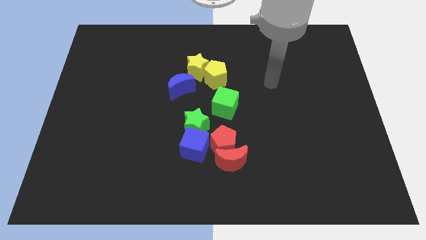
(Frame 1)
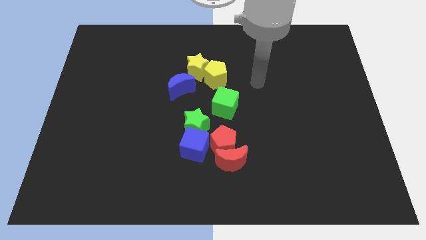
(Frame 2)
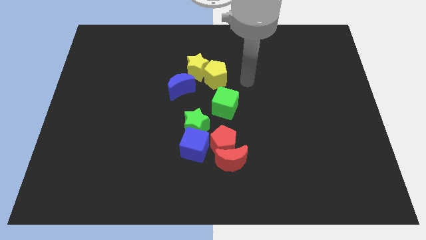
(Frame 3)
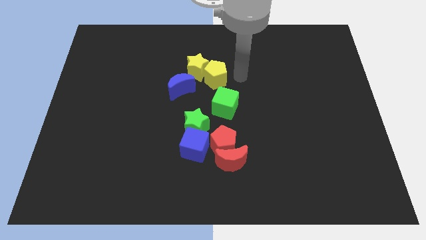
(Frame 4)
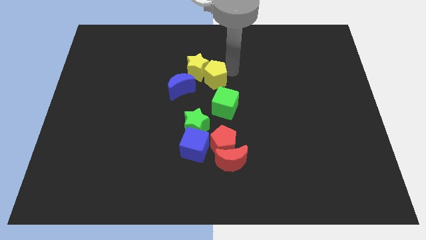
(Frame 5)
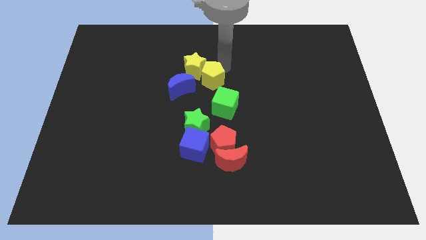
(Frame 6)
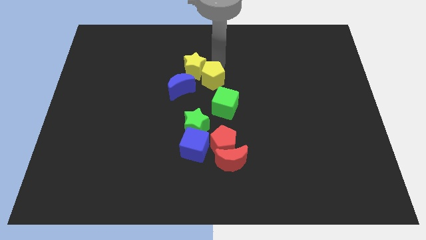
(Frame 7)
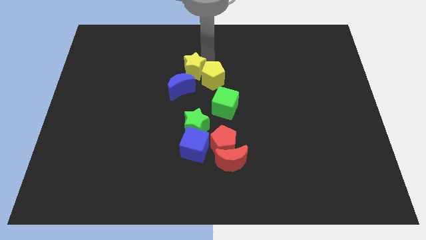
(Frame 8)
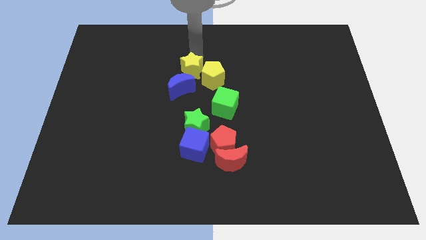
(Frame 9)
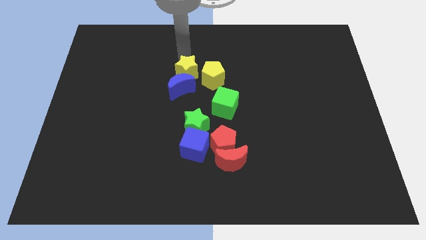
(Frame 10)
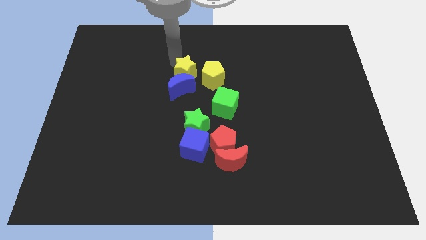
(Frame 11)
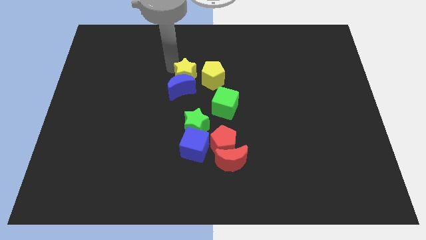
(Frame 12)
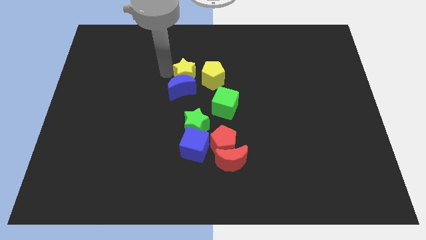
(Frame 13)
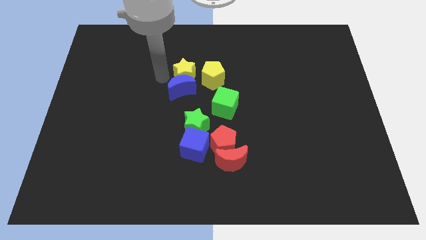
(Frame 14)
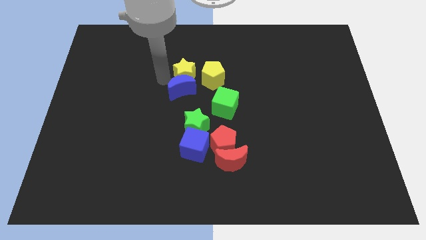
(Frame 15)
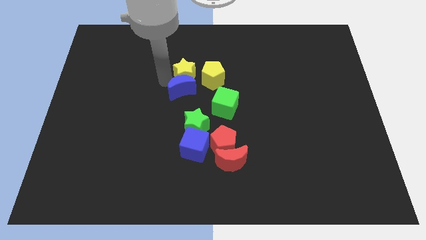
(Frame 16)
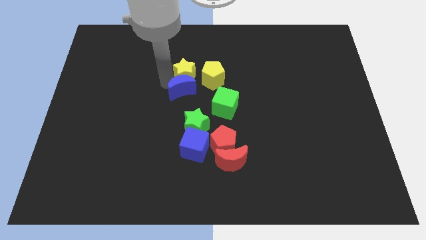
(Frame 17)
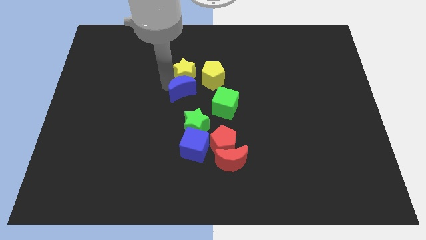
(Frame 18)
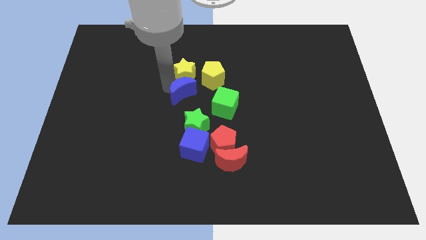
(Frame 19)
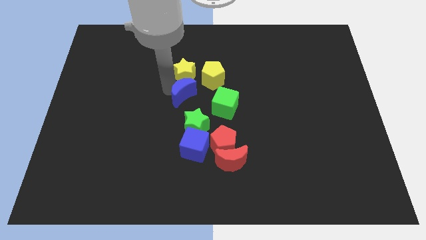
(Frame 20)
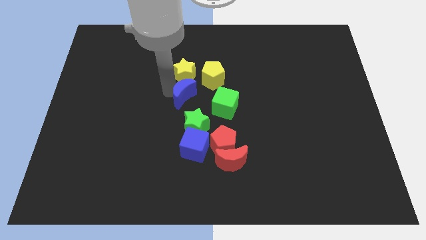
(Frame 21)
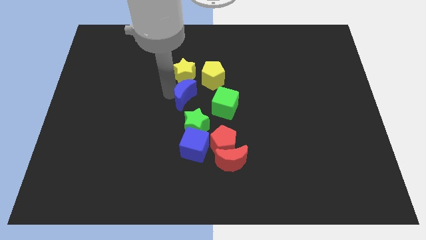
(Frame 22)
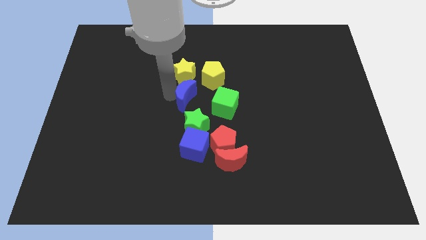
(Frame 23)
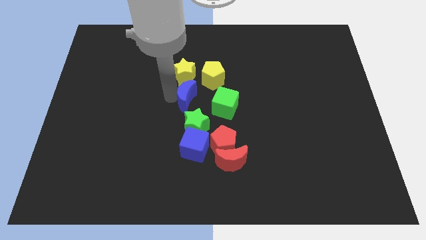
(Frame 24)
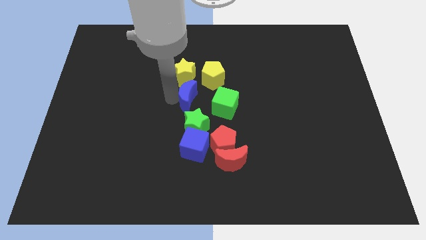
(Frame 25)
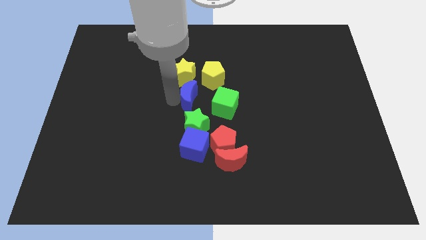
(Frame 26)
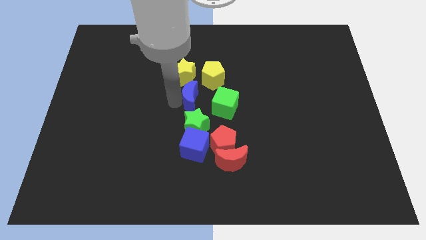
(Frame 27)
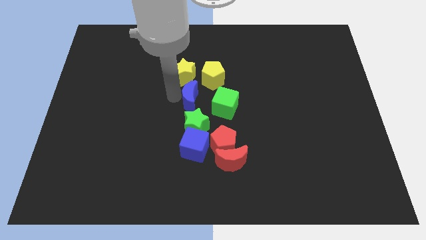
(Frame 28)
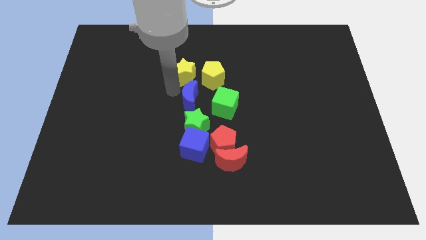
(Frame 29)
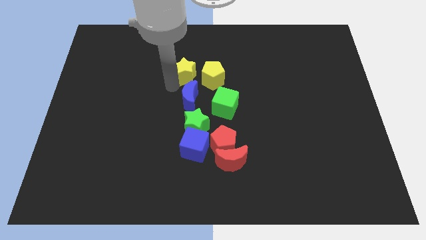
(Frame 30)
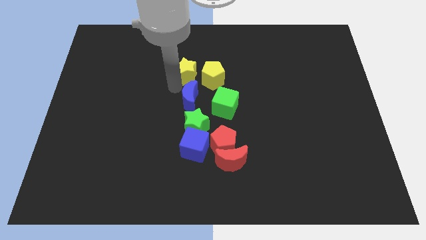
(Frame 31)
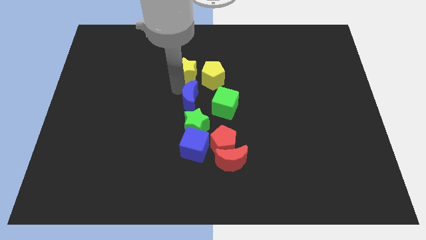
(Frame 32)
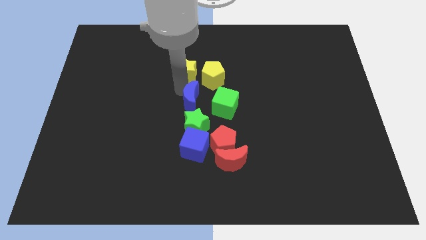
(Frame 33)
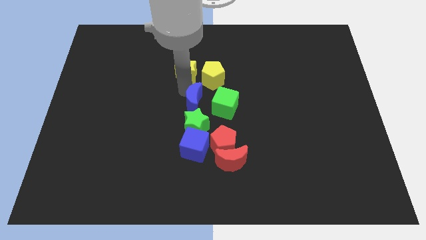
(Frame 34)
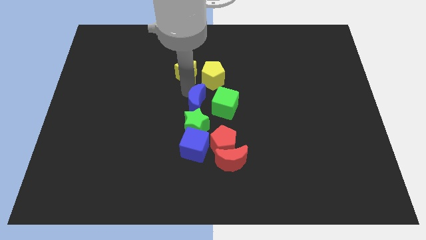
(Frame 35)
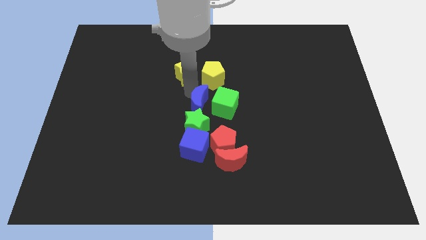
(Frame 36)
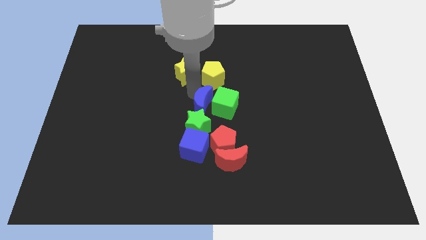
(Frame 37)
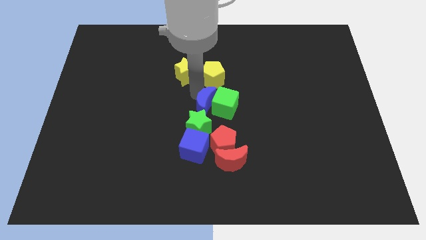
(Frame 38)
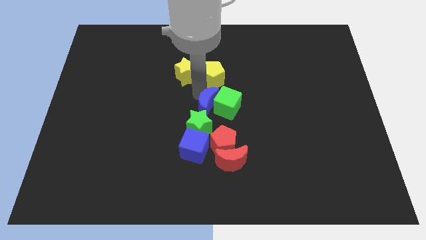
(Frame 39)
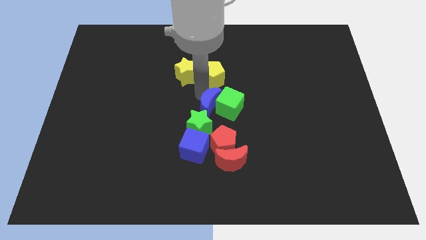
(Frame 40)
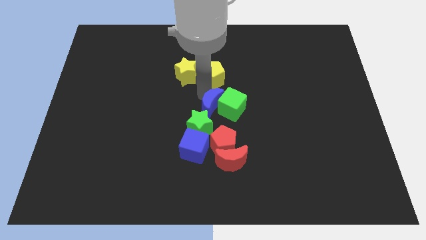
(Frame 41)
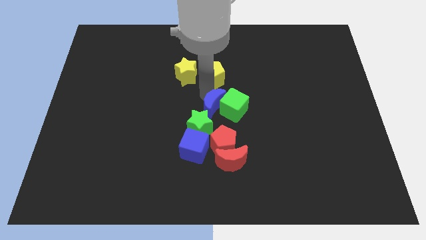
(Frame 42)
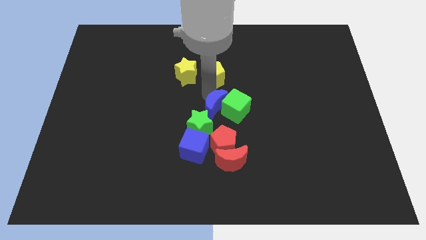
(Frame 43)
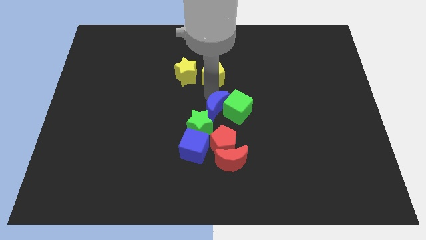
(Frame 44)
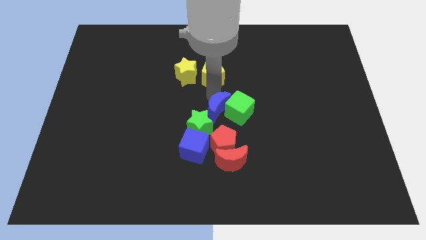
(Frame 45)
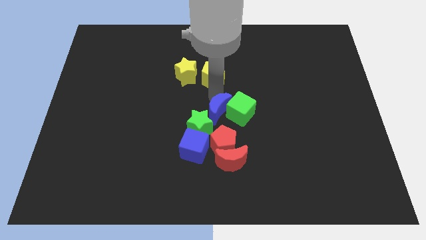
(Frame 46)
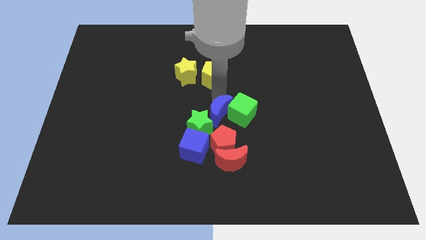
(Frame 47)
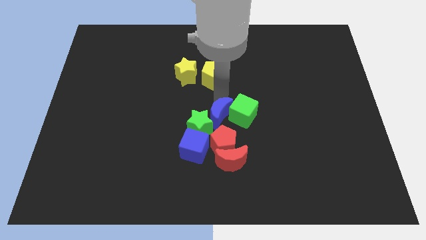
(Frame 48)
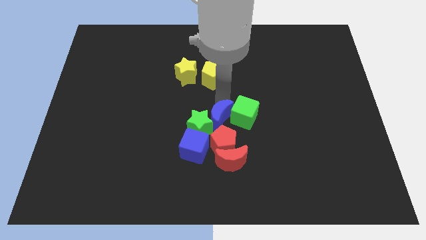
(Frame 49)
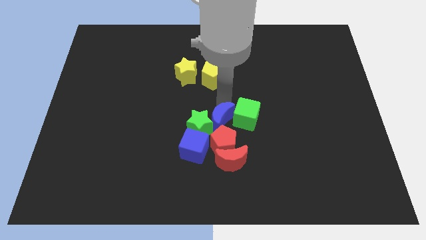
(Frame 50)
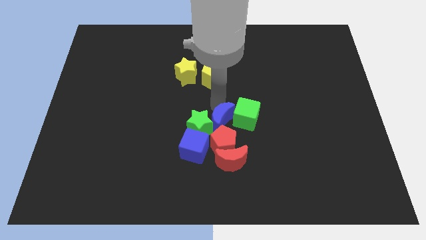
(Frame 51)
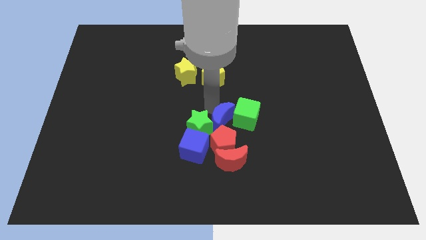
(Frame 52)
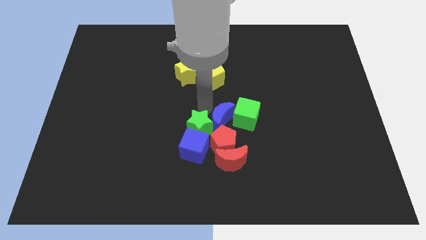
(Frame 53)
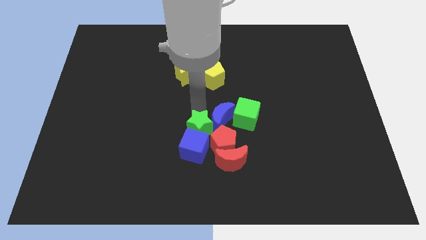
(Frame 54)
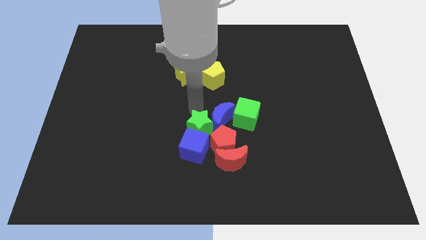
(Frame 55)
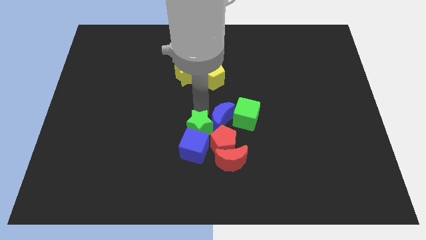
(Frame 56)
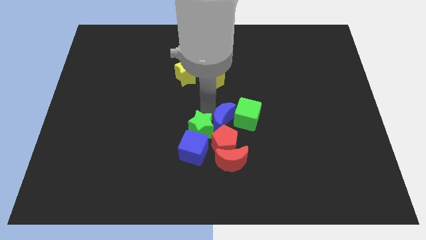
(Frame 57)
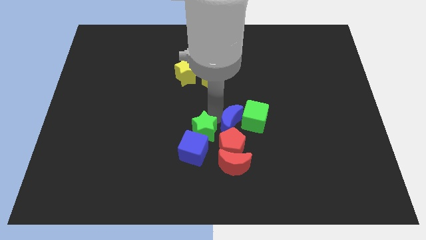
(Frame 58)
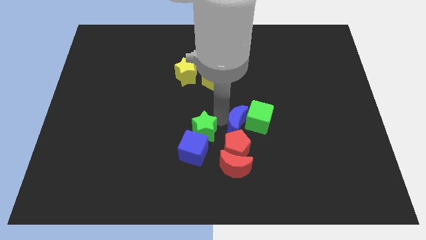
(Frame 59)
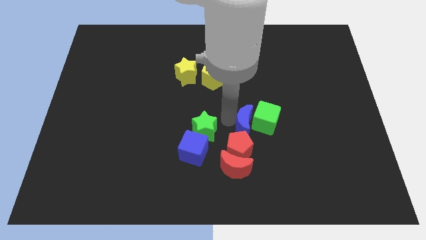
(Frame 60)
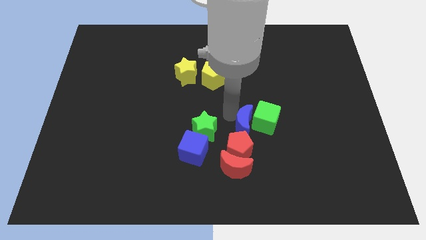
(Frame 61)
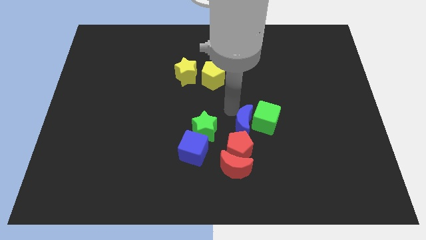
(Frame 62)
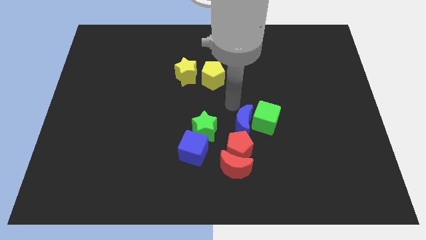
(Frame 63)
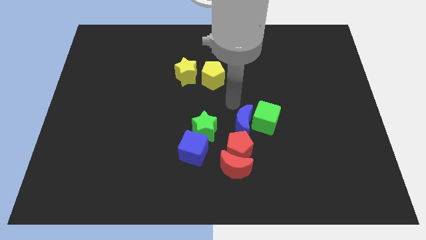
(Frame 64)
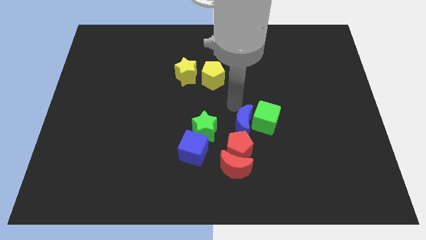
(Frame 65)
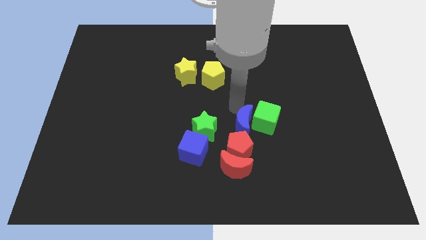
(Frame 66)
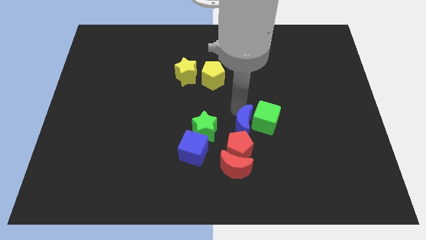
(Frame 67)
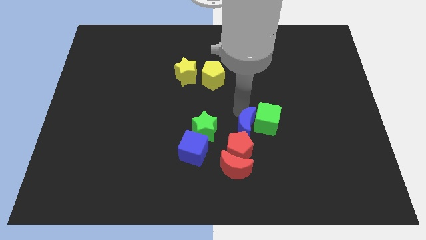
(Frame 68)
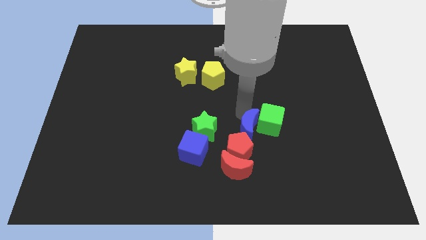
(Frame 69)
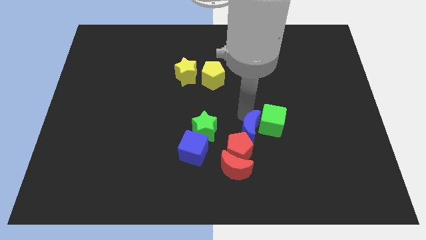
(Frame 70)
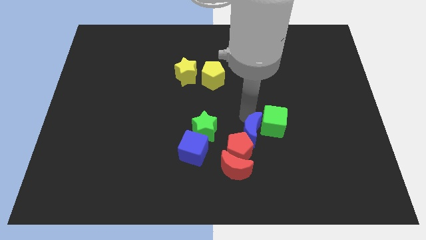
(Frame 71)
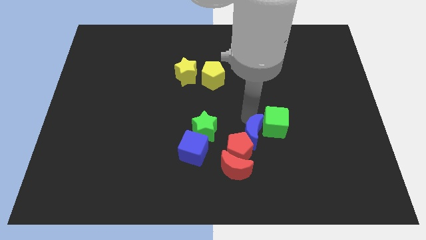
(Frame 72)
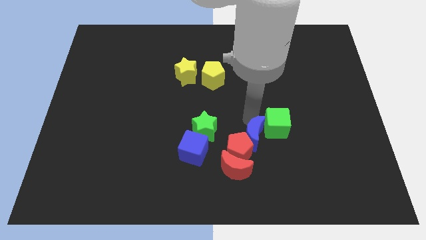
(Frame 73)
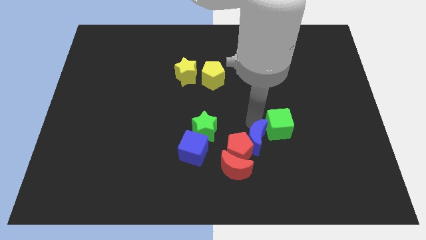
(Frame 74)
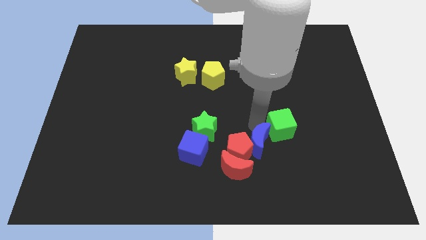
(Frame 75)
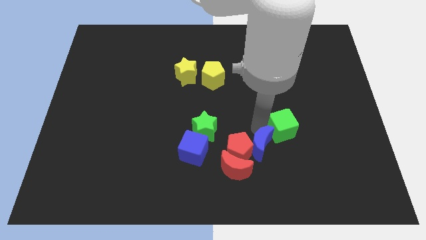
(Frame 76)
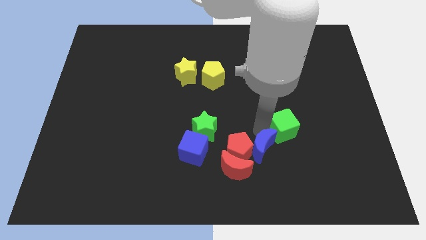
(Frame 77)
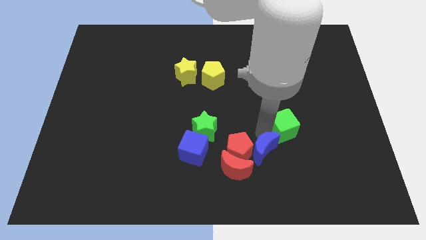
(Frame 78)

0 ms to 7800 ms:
push the blue moon to the right of the red moon
